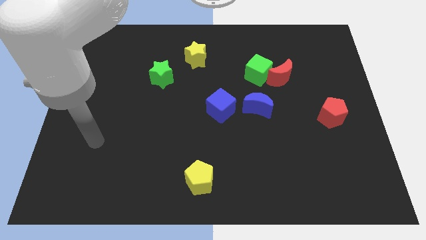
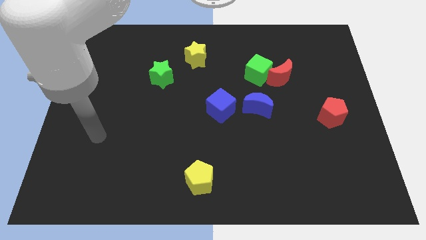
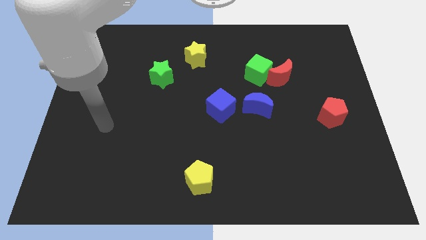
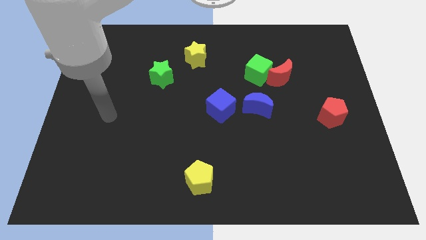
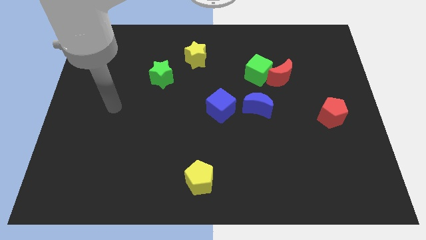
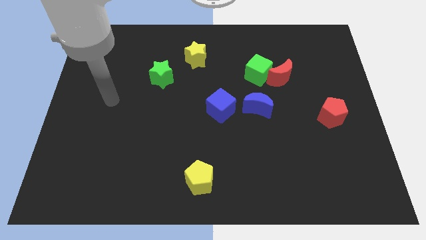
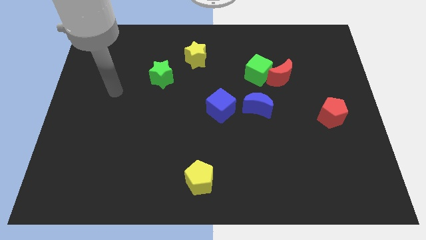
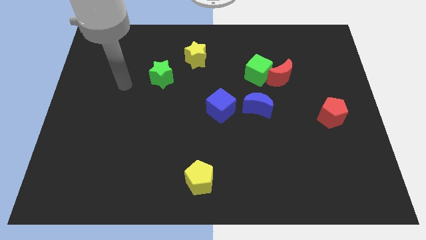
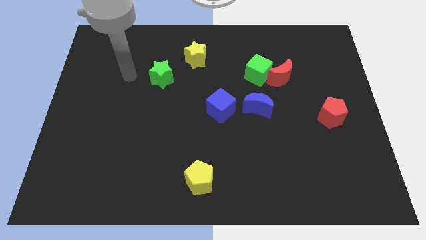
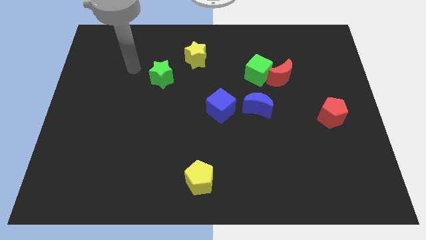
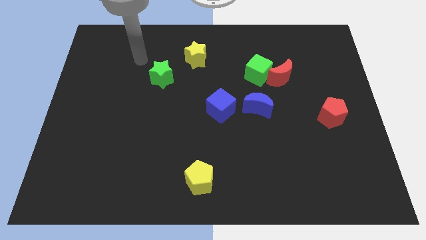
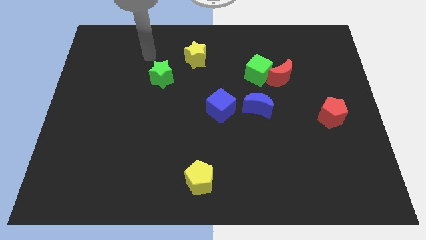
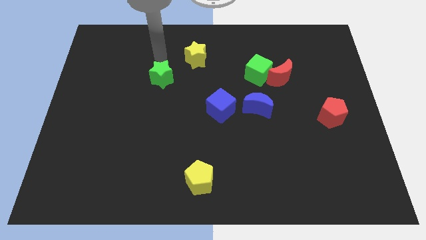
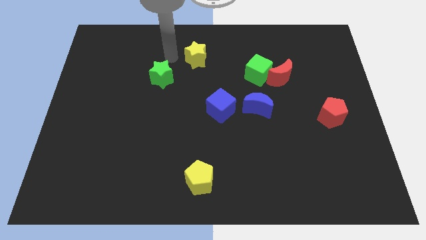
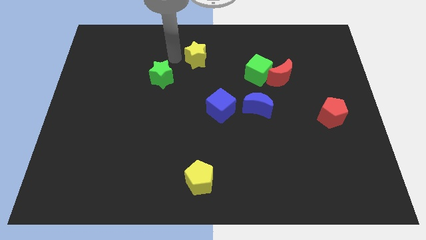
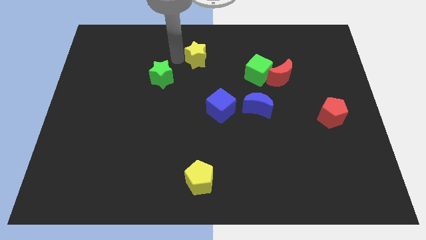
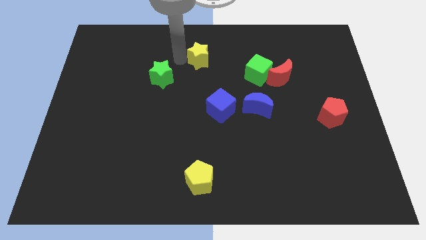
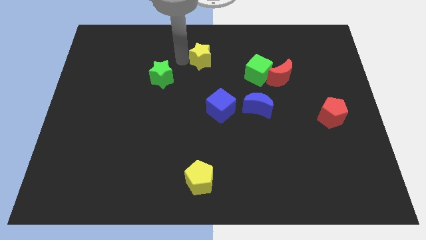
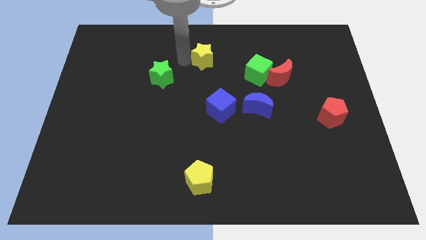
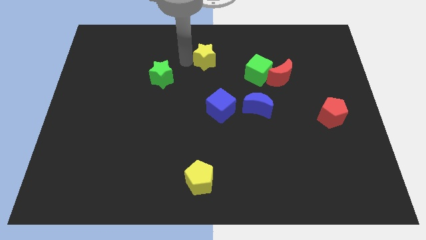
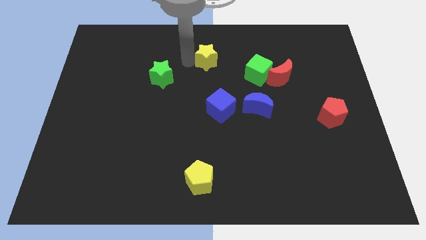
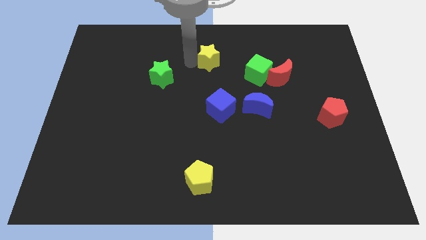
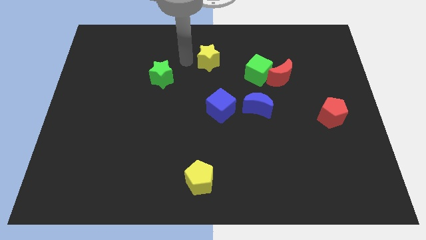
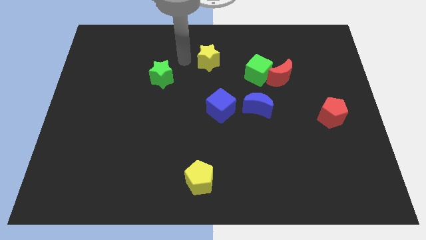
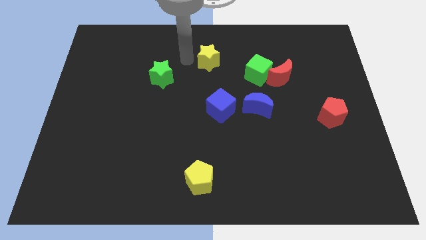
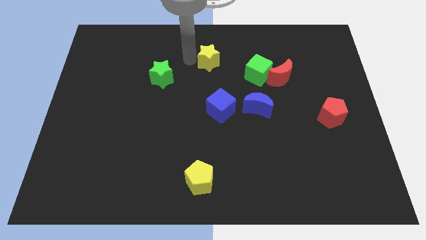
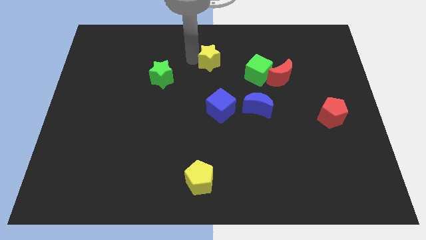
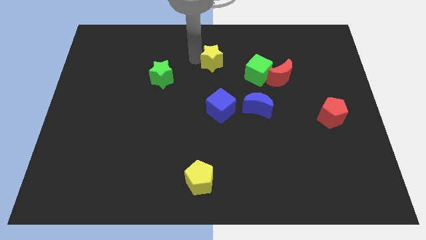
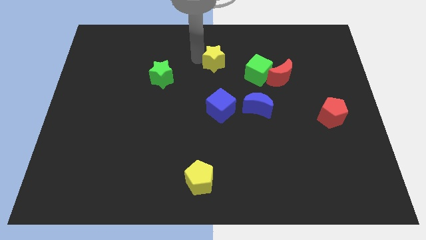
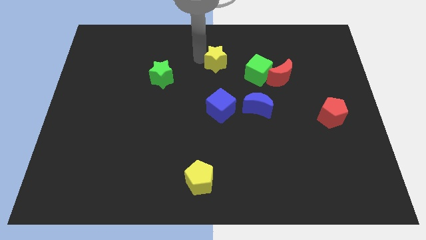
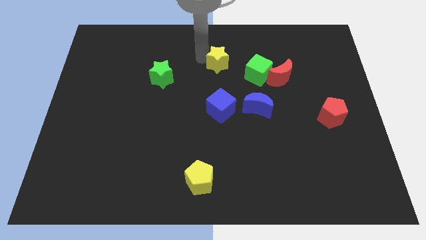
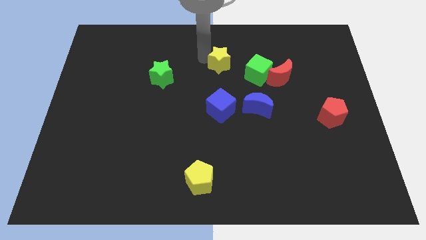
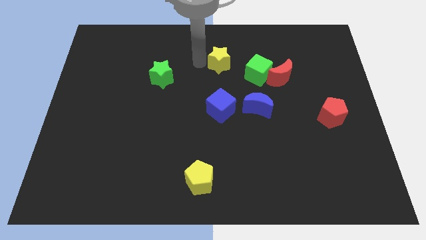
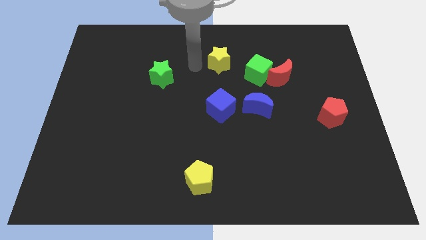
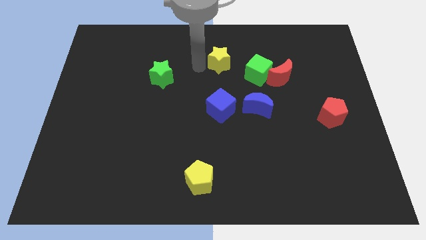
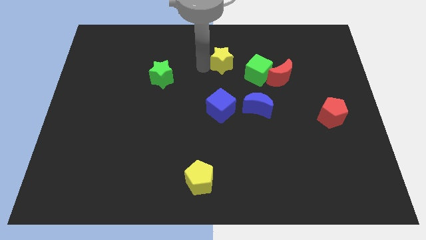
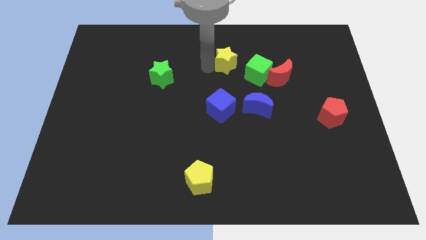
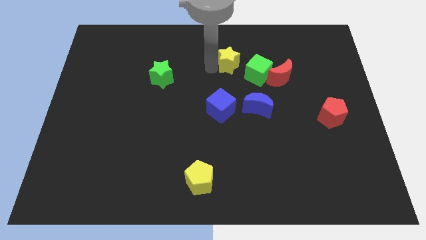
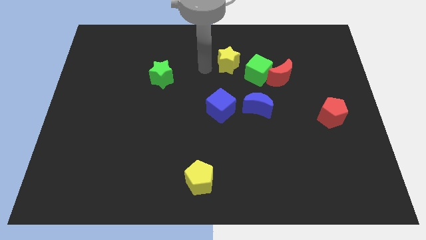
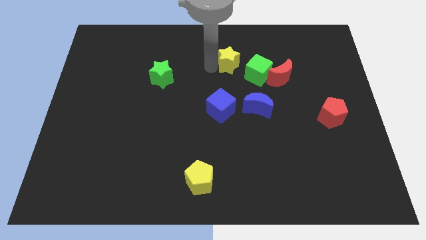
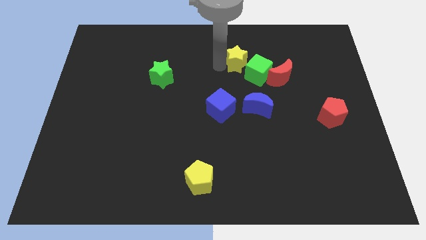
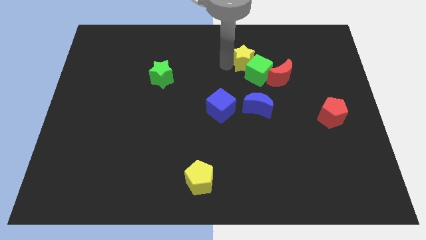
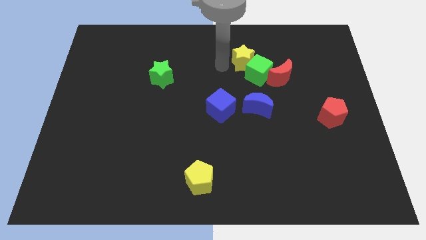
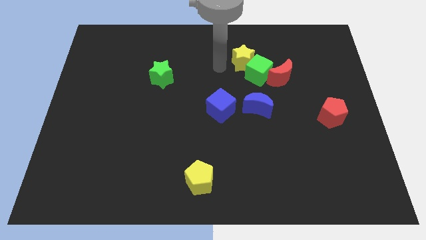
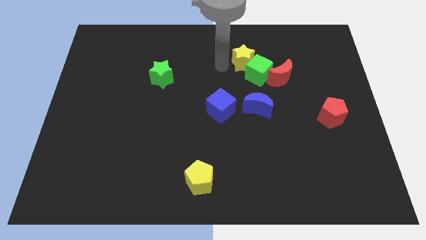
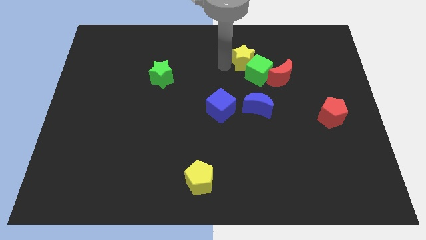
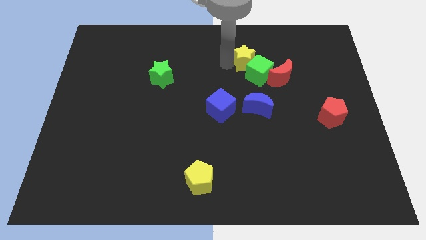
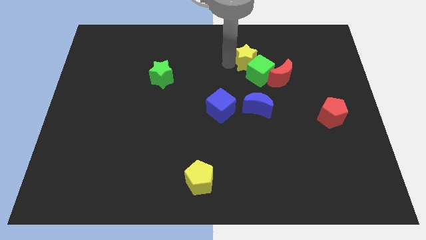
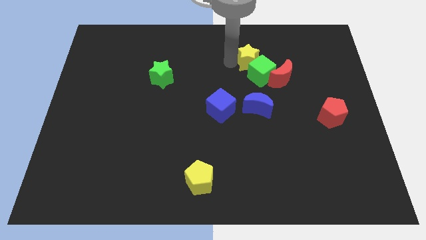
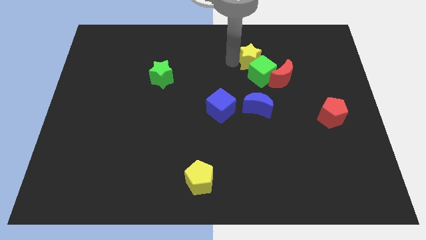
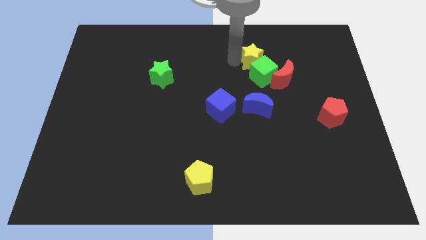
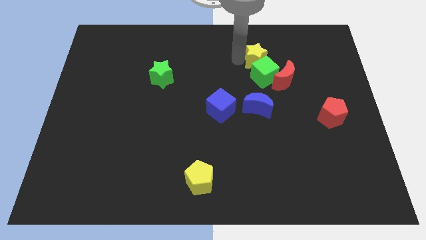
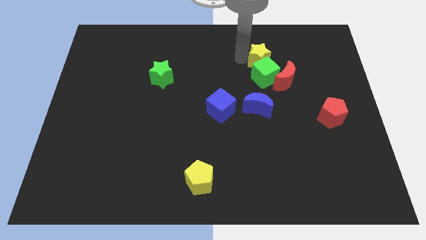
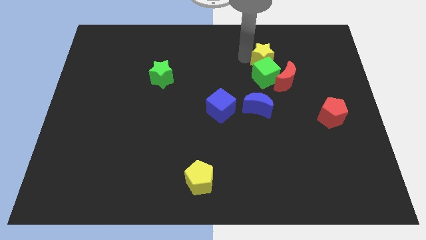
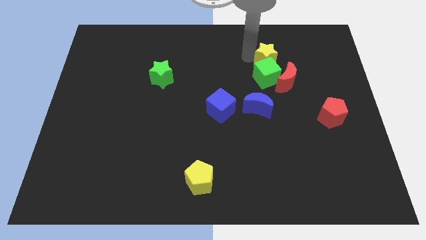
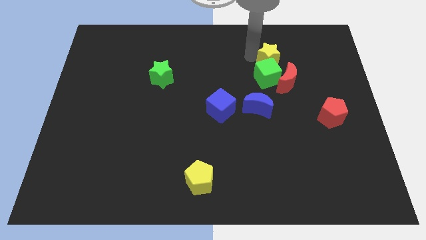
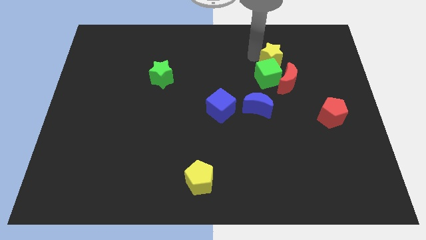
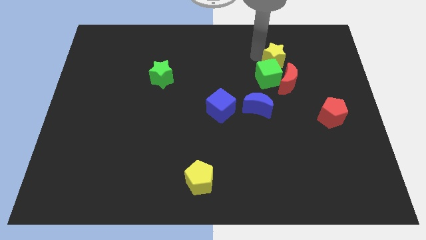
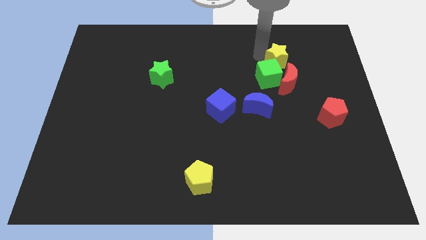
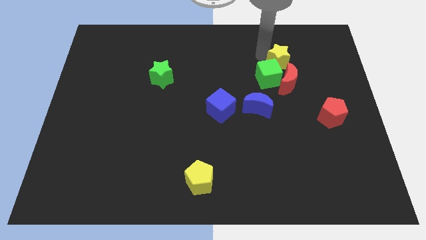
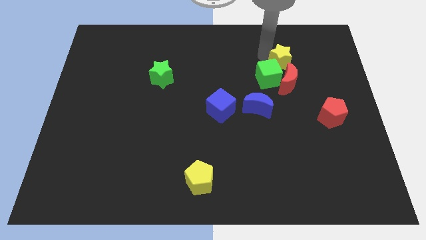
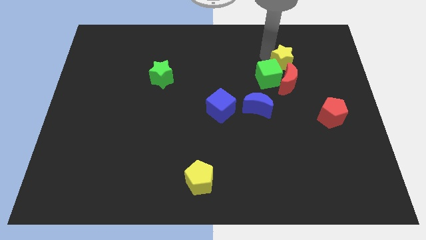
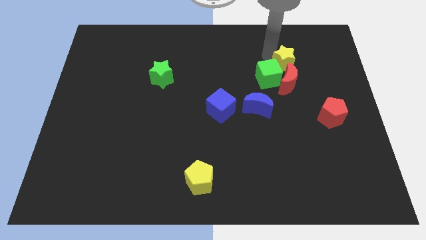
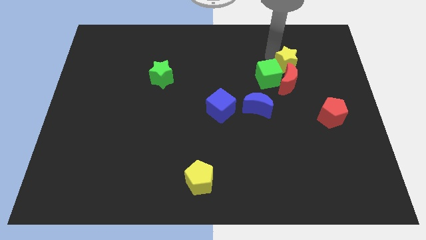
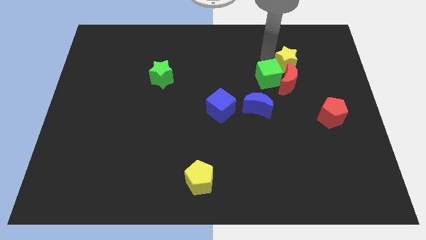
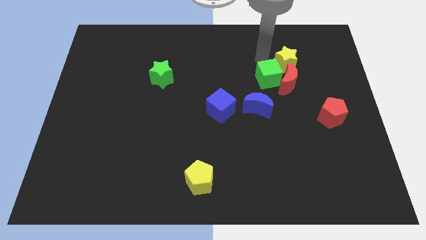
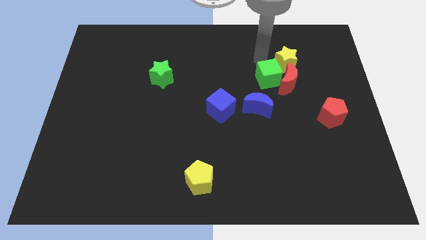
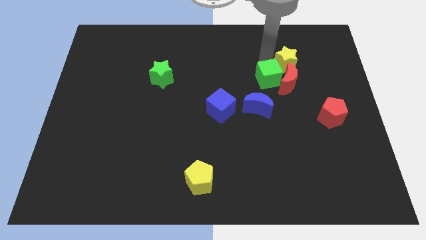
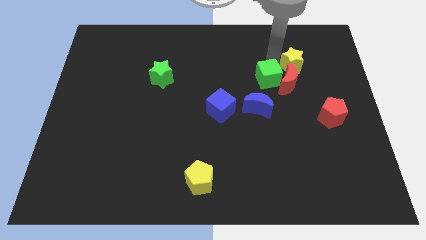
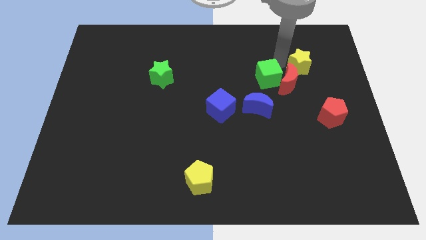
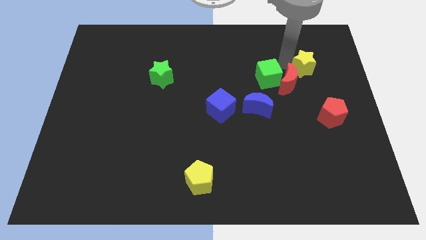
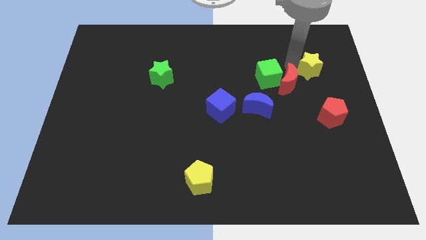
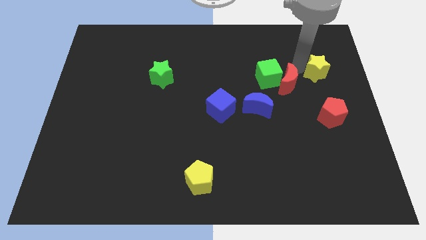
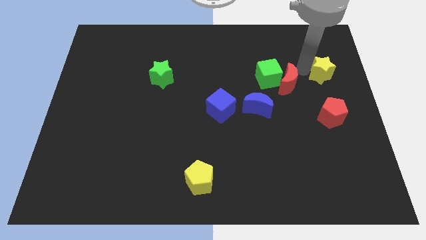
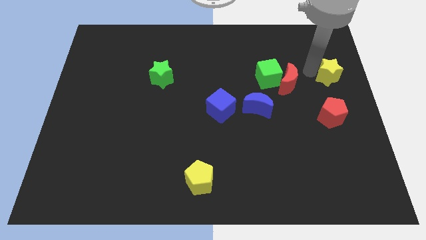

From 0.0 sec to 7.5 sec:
move the yellow star to the center right
